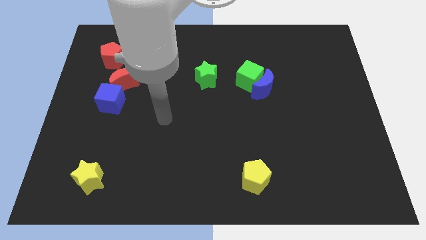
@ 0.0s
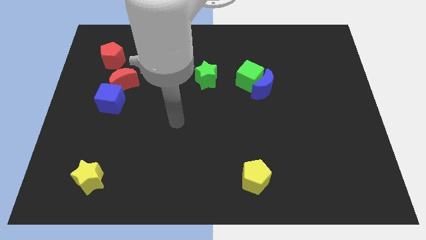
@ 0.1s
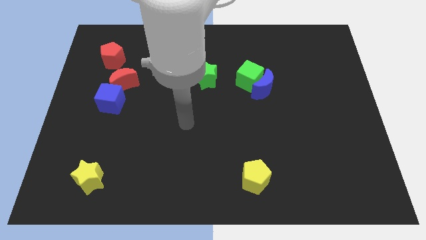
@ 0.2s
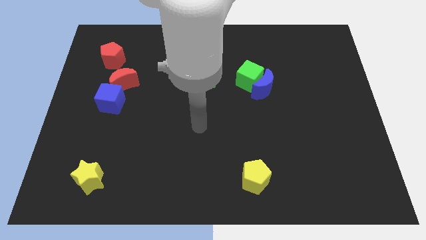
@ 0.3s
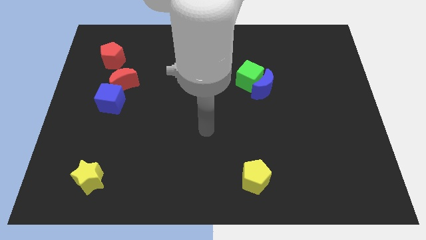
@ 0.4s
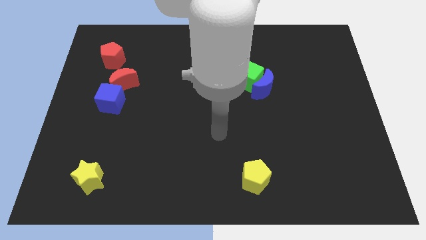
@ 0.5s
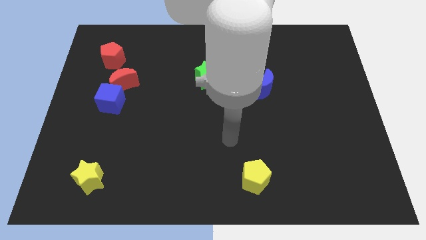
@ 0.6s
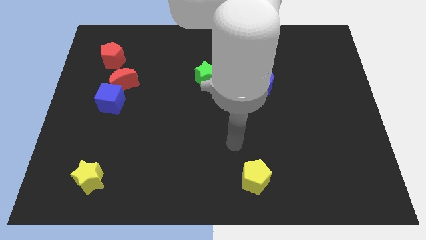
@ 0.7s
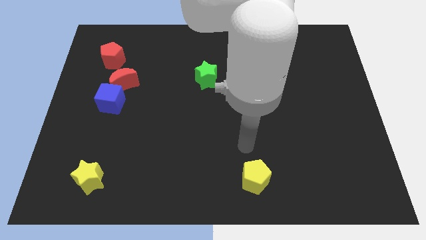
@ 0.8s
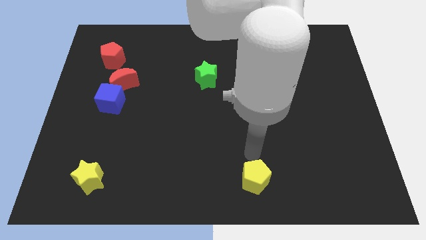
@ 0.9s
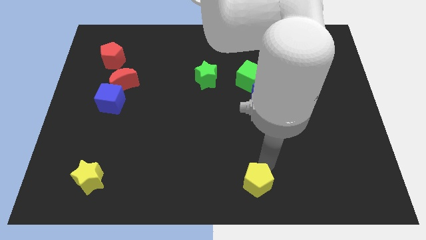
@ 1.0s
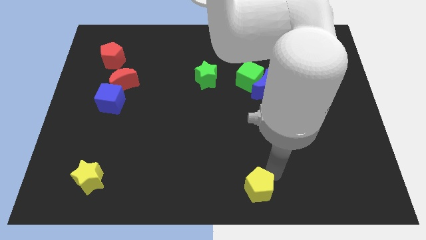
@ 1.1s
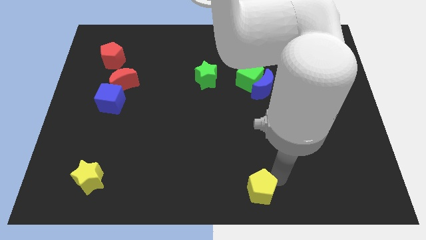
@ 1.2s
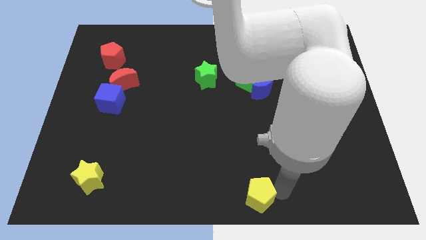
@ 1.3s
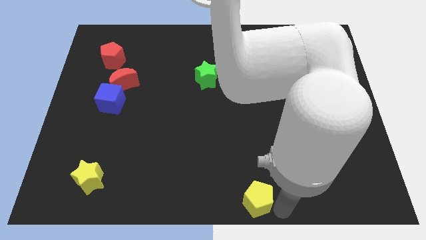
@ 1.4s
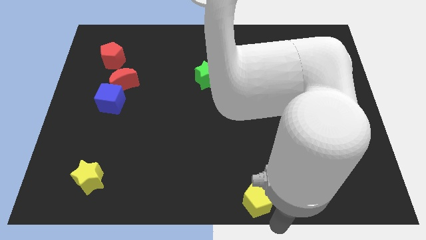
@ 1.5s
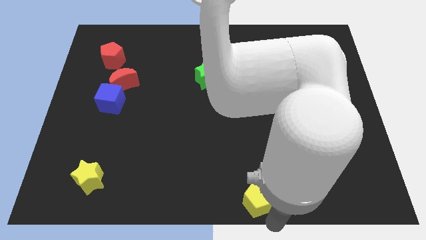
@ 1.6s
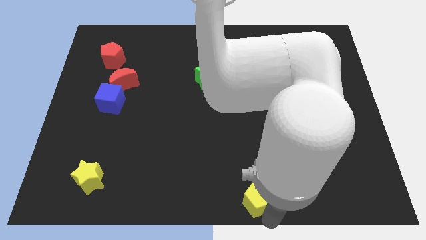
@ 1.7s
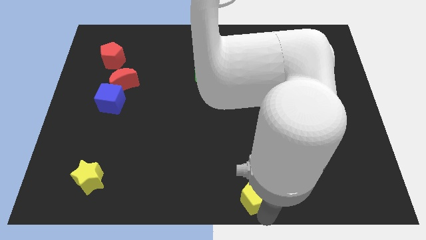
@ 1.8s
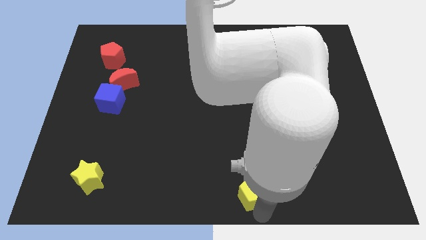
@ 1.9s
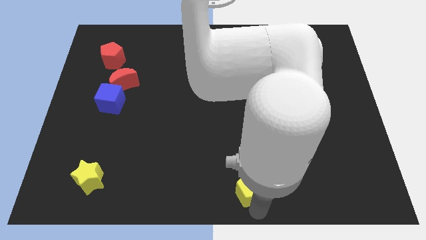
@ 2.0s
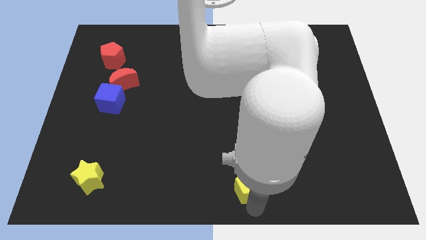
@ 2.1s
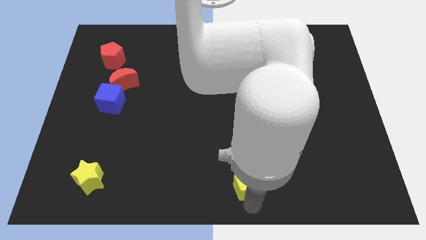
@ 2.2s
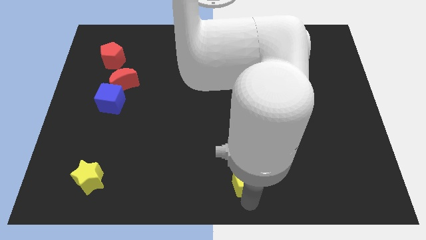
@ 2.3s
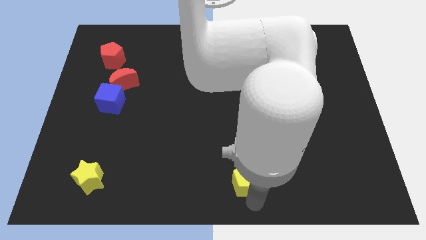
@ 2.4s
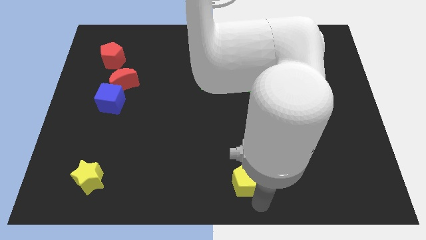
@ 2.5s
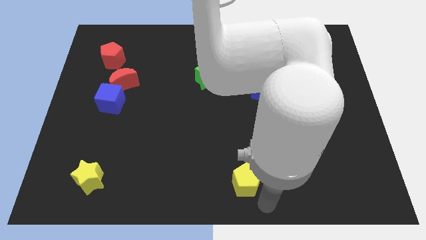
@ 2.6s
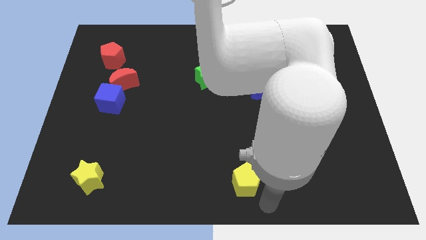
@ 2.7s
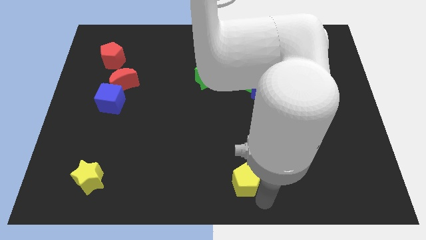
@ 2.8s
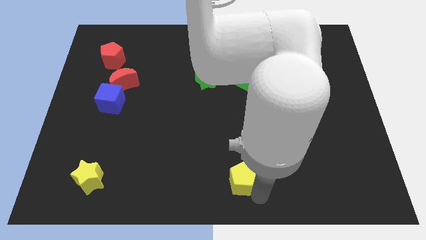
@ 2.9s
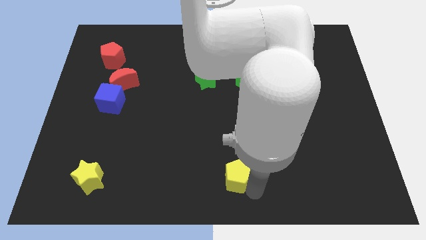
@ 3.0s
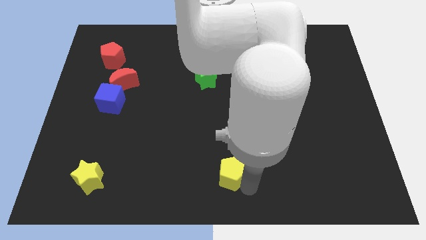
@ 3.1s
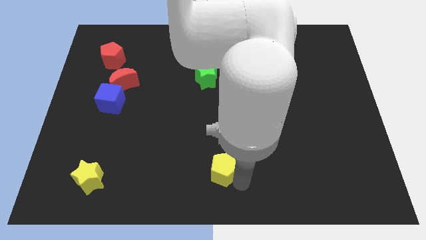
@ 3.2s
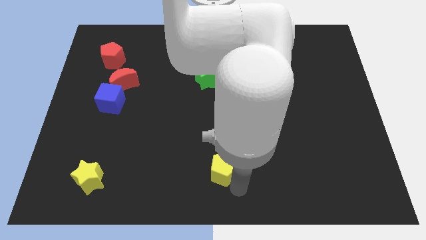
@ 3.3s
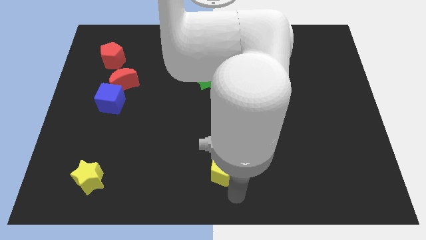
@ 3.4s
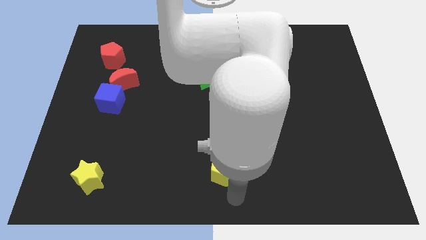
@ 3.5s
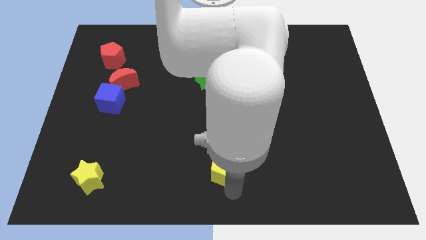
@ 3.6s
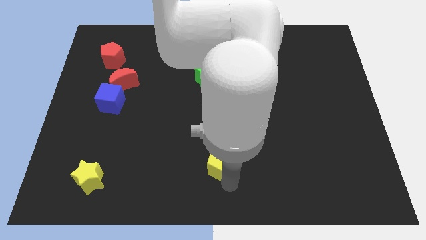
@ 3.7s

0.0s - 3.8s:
slightly move the yellow pentagon upwards and to the left diagonally

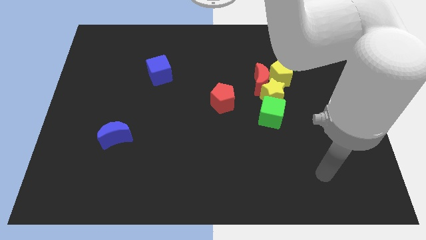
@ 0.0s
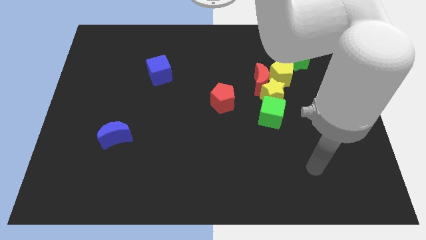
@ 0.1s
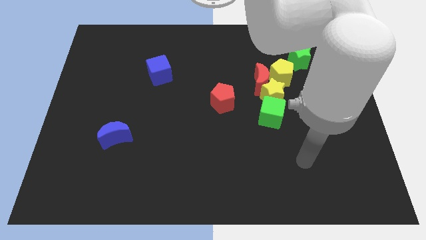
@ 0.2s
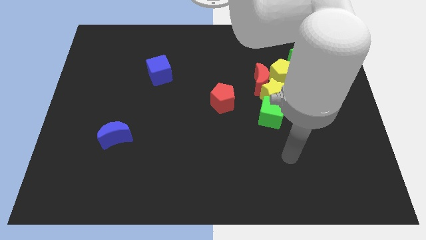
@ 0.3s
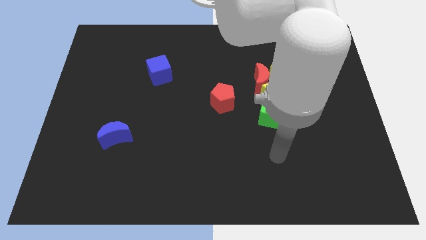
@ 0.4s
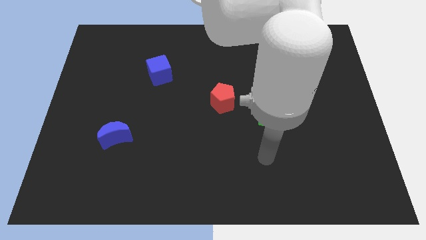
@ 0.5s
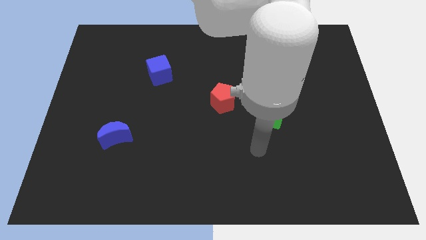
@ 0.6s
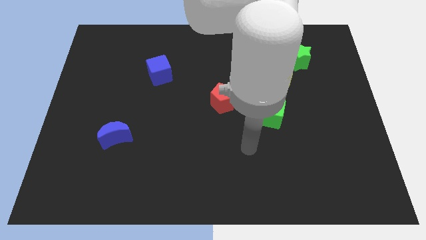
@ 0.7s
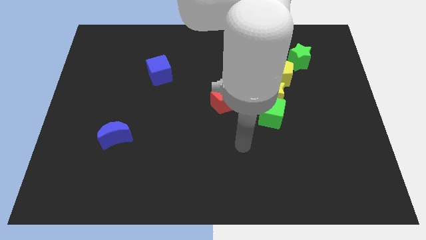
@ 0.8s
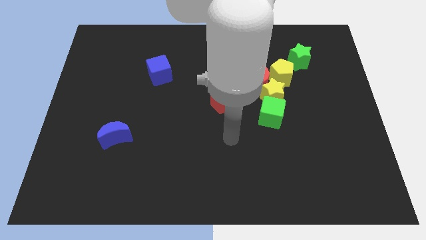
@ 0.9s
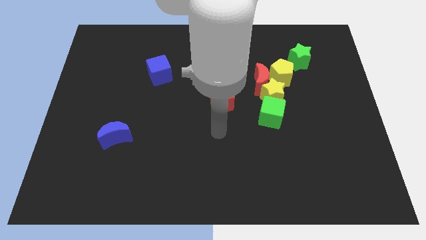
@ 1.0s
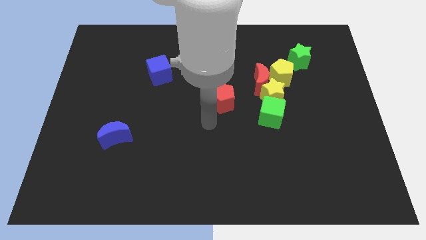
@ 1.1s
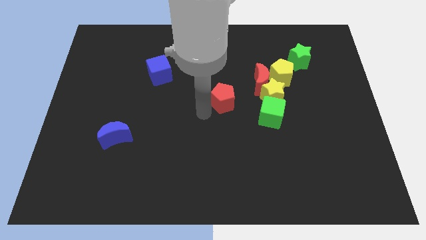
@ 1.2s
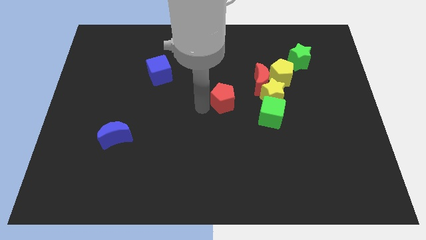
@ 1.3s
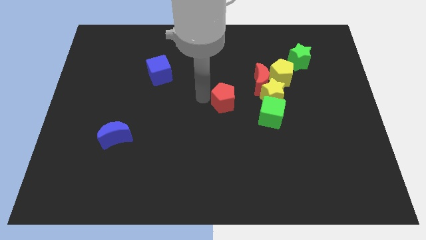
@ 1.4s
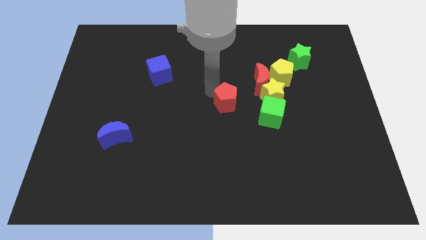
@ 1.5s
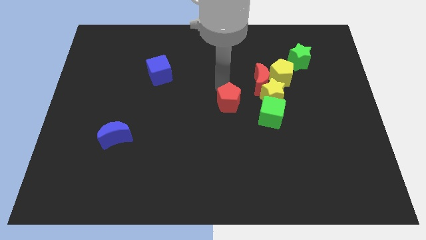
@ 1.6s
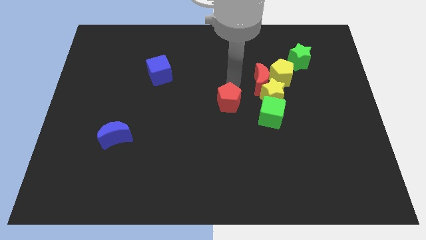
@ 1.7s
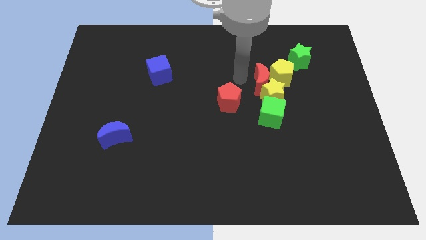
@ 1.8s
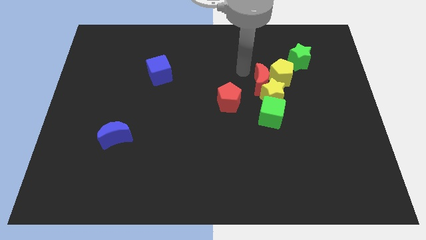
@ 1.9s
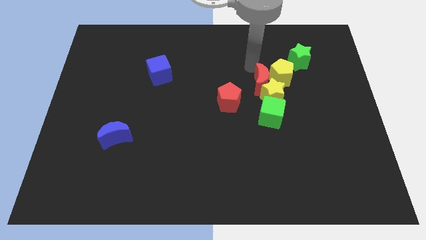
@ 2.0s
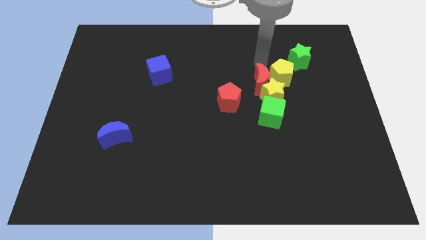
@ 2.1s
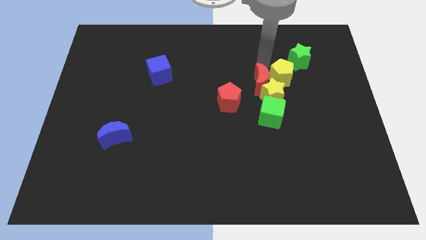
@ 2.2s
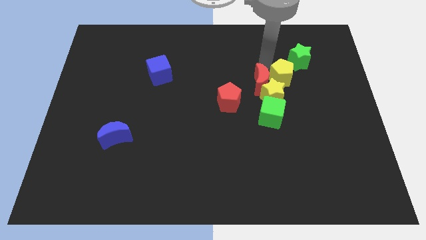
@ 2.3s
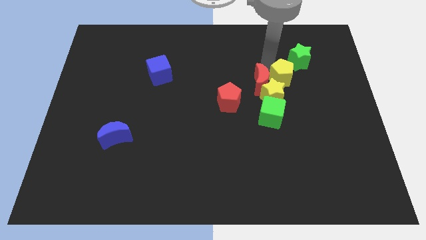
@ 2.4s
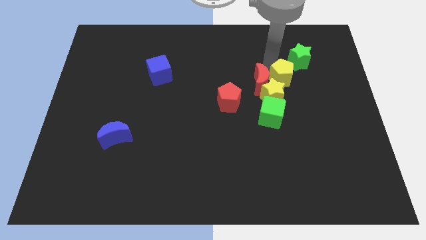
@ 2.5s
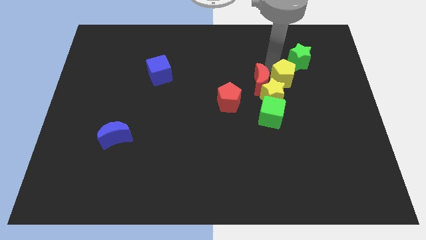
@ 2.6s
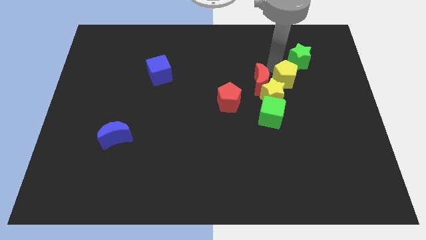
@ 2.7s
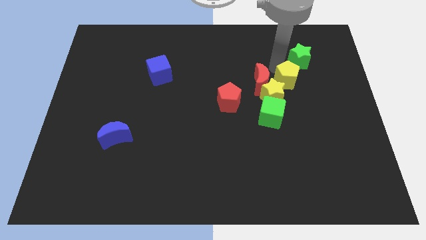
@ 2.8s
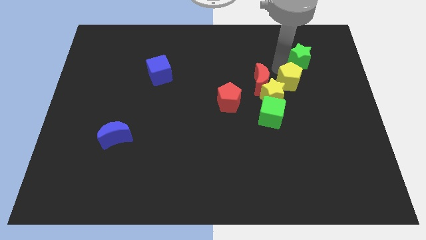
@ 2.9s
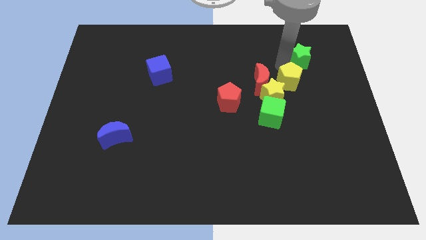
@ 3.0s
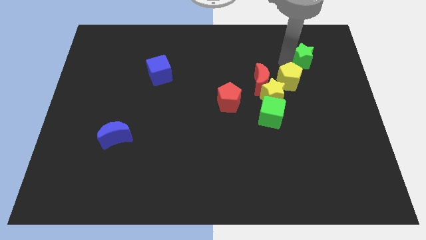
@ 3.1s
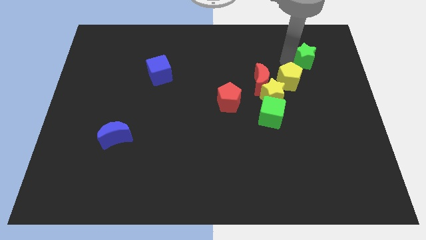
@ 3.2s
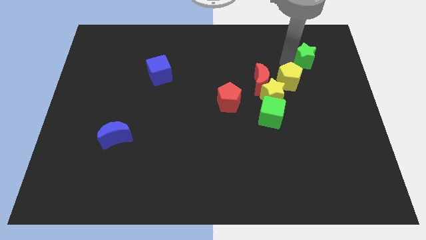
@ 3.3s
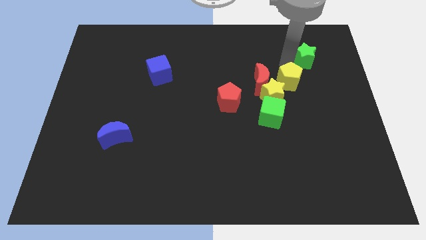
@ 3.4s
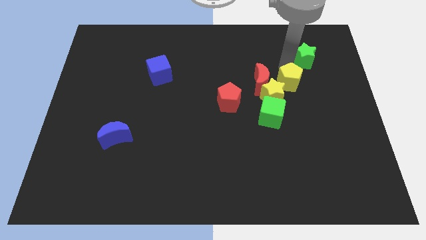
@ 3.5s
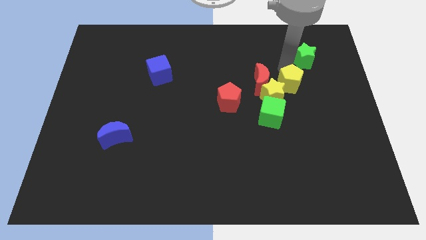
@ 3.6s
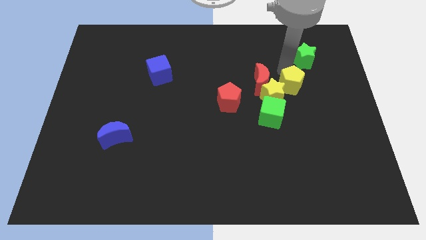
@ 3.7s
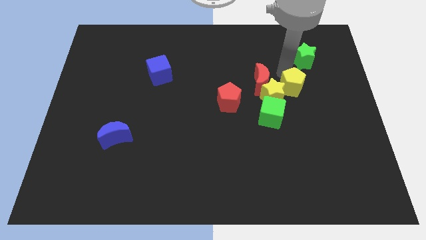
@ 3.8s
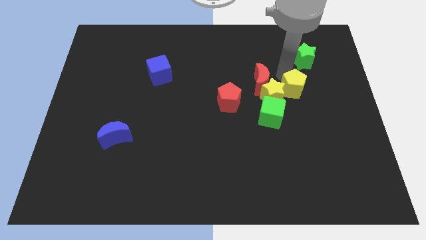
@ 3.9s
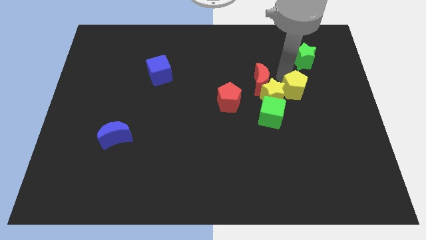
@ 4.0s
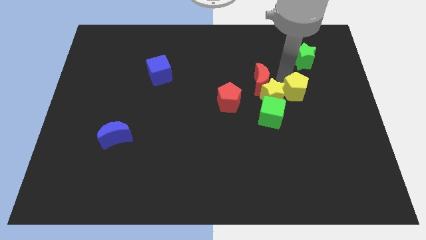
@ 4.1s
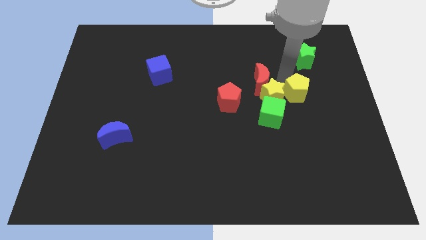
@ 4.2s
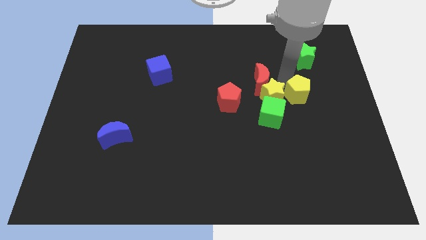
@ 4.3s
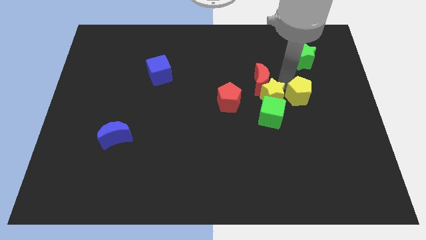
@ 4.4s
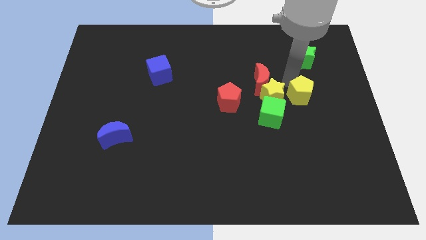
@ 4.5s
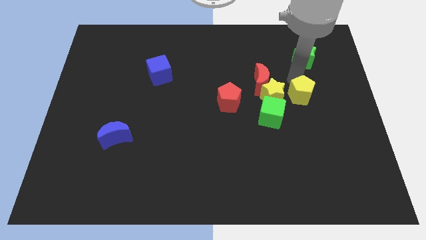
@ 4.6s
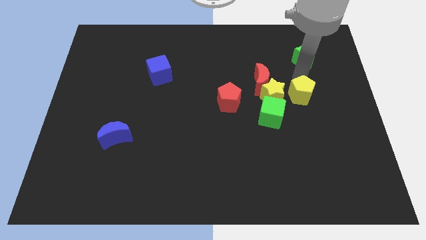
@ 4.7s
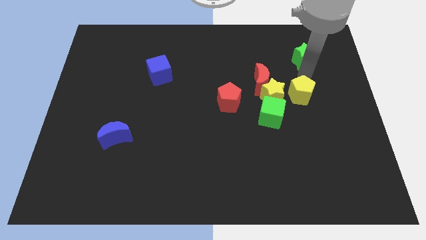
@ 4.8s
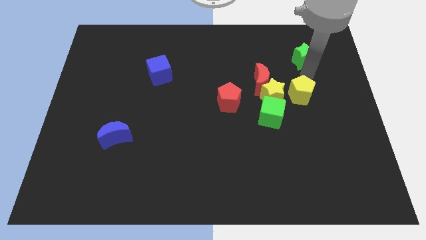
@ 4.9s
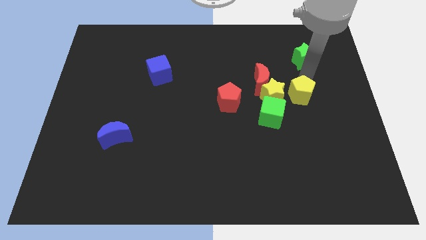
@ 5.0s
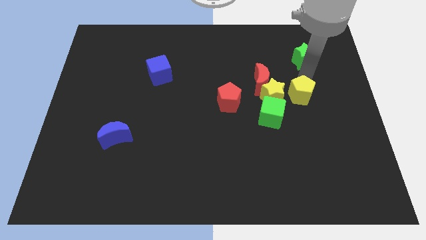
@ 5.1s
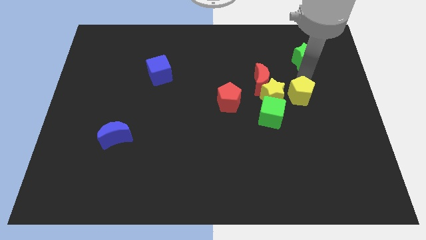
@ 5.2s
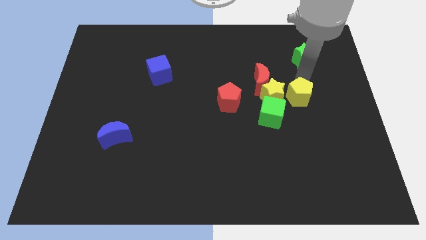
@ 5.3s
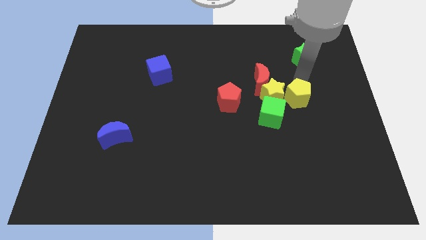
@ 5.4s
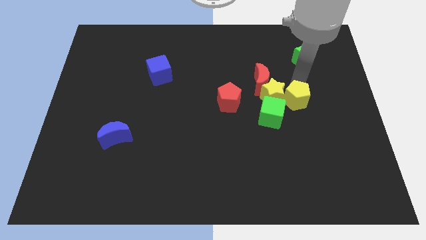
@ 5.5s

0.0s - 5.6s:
slide the yellow pentagon a little downwards
